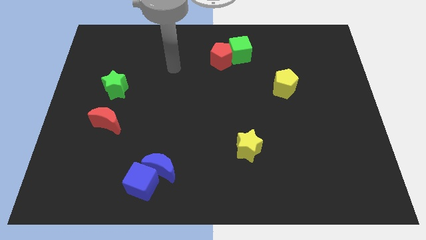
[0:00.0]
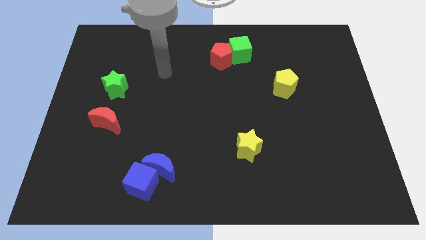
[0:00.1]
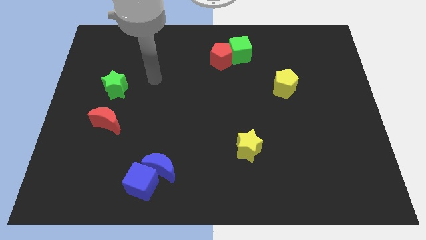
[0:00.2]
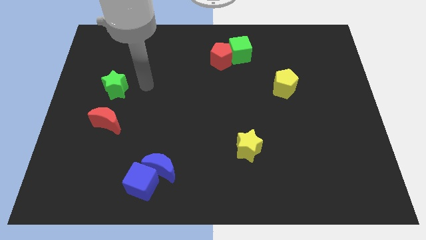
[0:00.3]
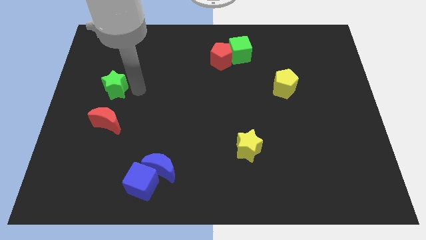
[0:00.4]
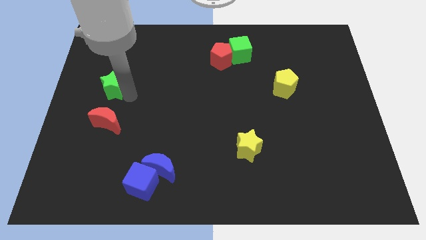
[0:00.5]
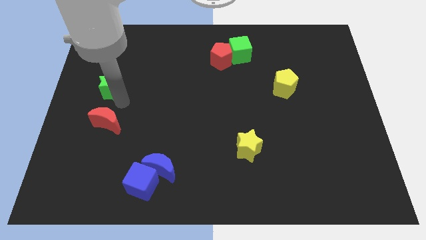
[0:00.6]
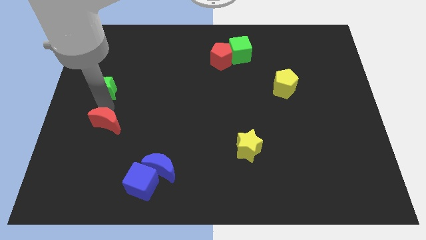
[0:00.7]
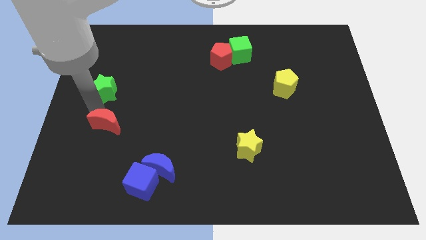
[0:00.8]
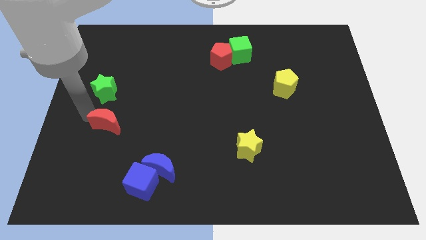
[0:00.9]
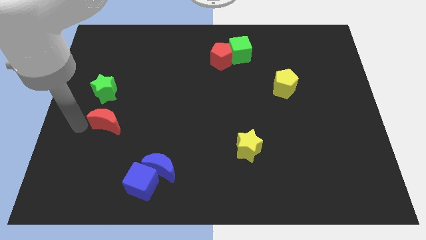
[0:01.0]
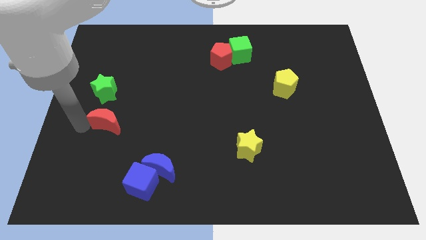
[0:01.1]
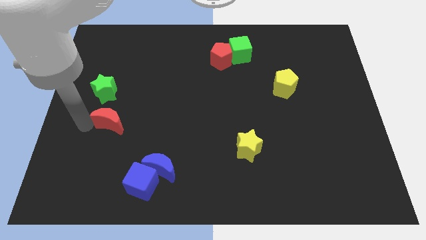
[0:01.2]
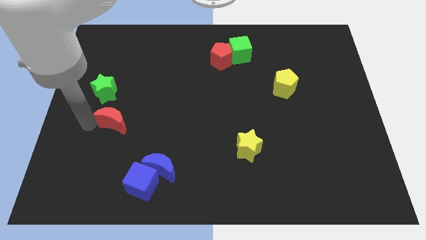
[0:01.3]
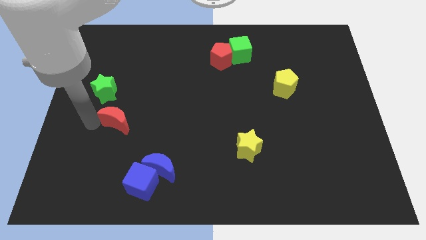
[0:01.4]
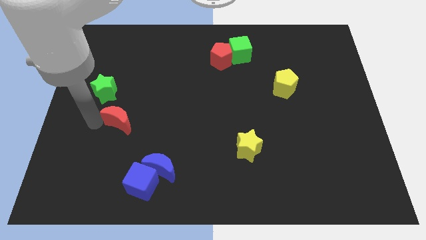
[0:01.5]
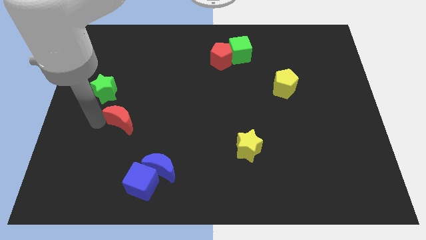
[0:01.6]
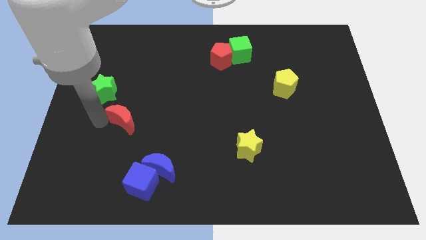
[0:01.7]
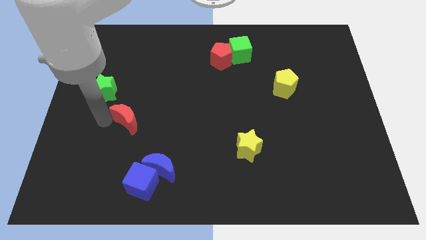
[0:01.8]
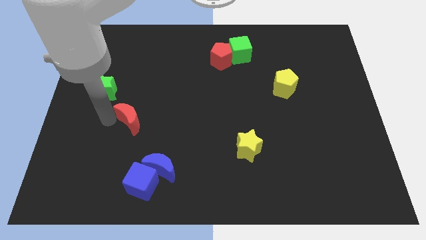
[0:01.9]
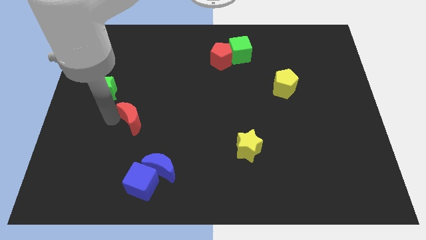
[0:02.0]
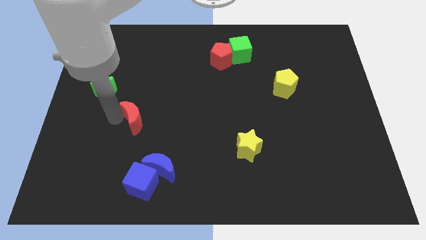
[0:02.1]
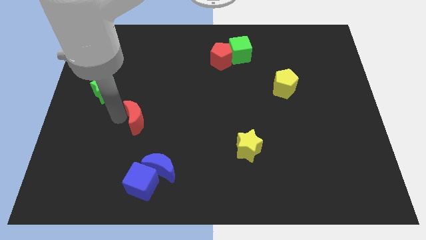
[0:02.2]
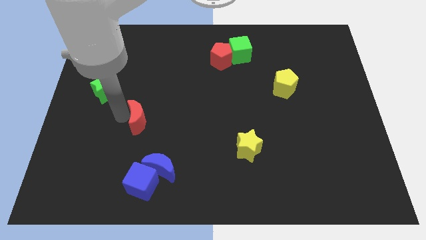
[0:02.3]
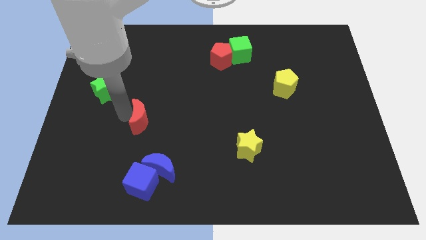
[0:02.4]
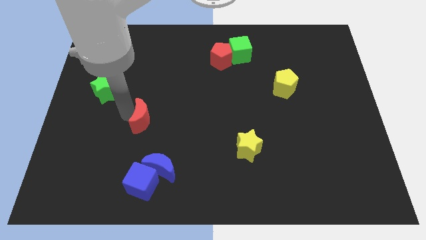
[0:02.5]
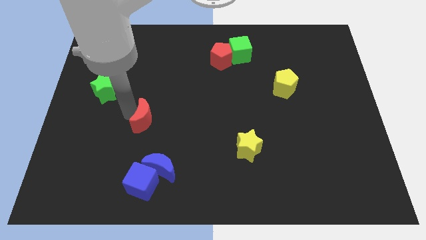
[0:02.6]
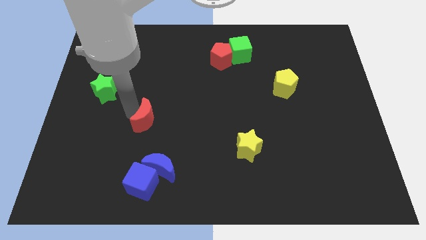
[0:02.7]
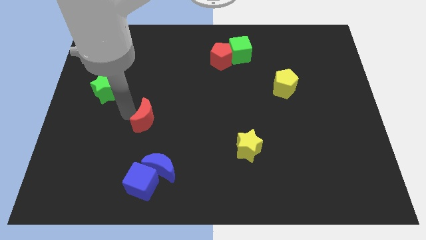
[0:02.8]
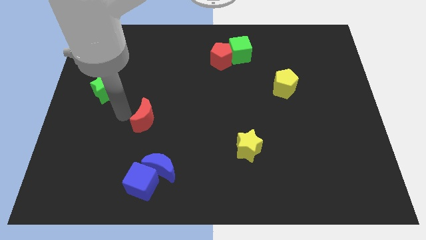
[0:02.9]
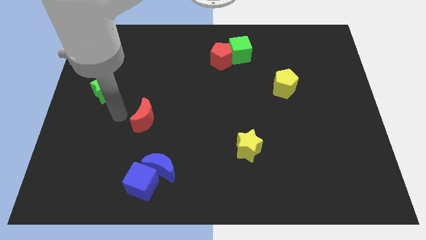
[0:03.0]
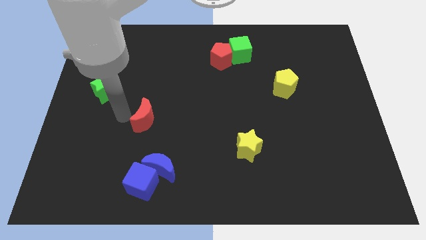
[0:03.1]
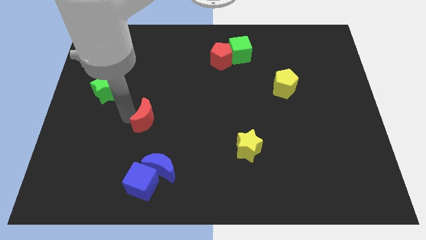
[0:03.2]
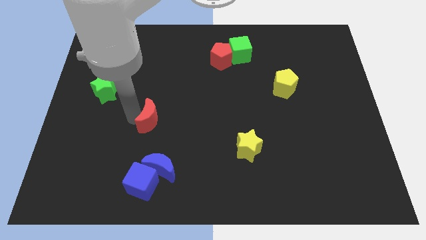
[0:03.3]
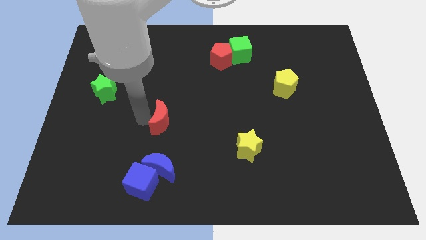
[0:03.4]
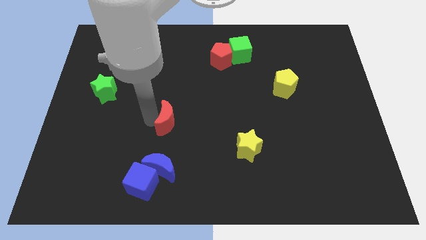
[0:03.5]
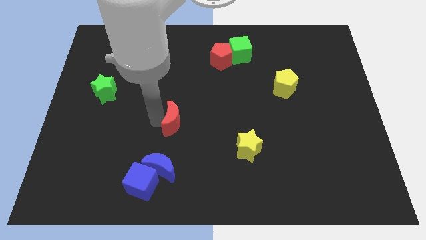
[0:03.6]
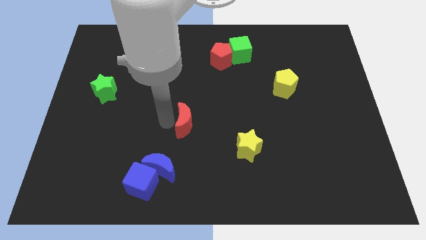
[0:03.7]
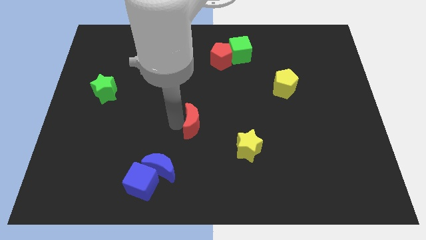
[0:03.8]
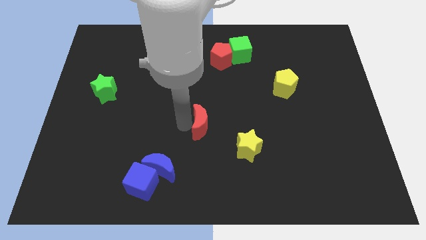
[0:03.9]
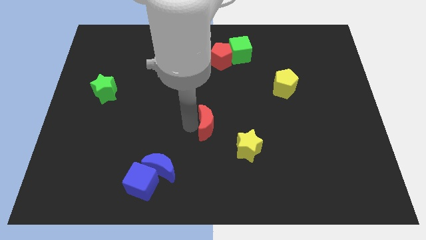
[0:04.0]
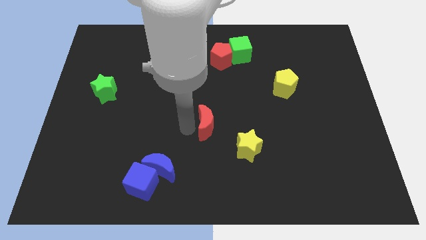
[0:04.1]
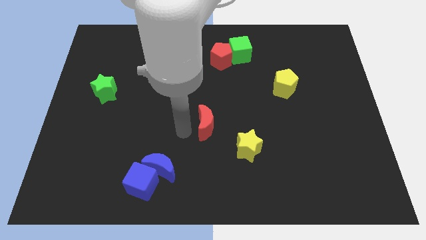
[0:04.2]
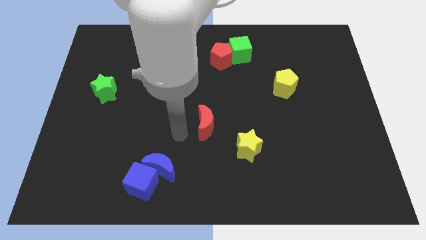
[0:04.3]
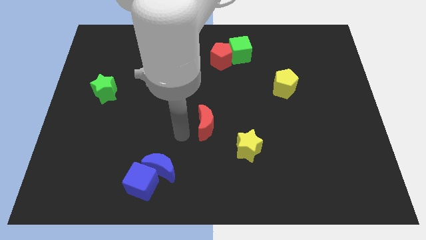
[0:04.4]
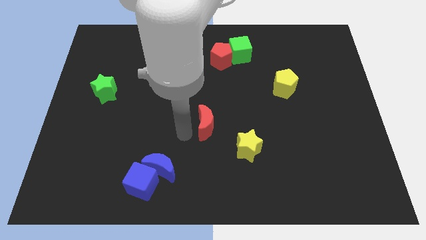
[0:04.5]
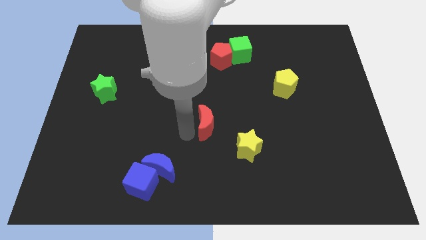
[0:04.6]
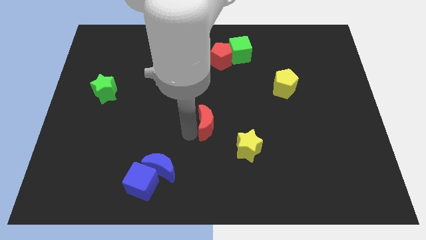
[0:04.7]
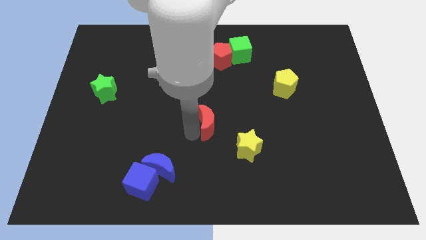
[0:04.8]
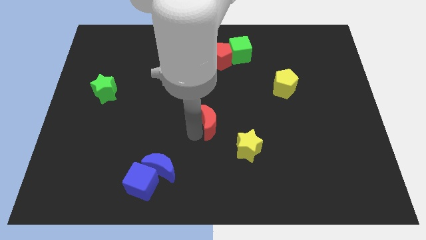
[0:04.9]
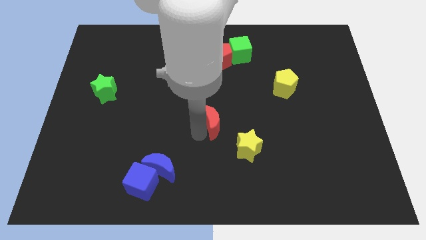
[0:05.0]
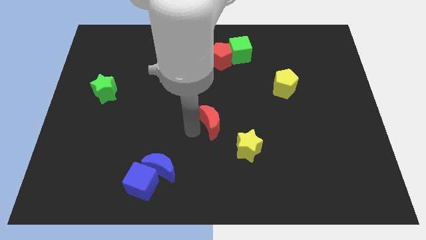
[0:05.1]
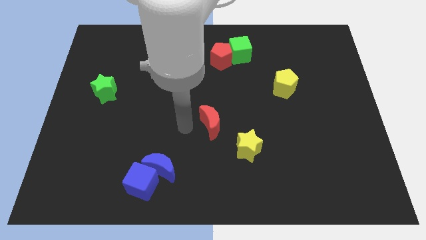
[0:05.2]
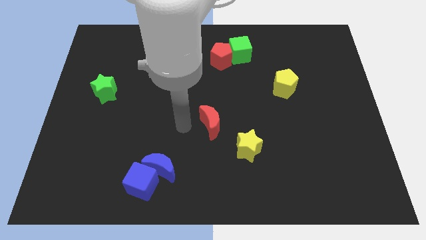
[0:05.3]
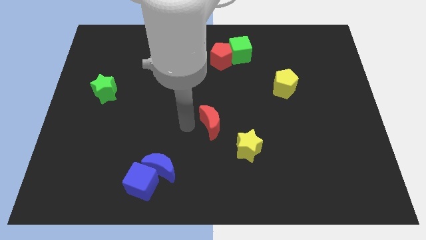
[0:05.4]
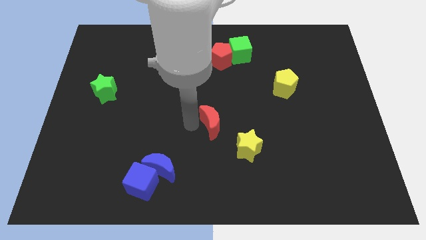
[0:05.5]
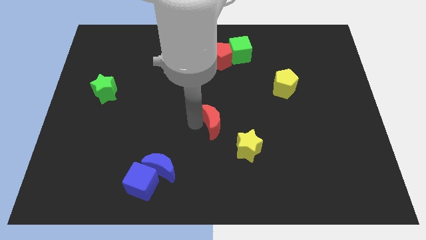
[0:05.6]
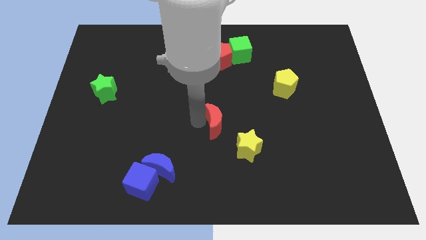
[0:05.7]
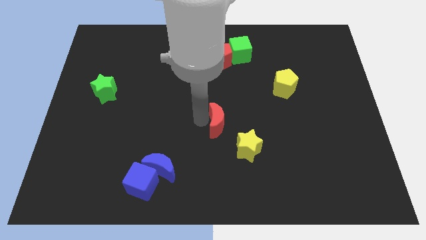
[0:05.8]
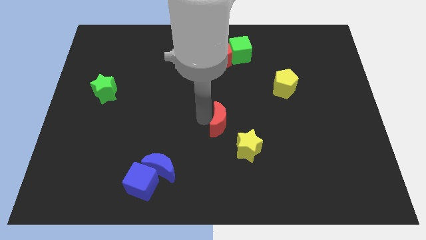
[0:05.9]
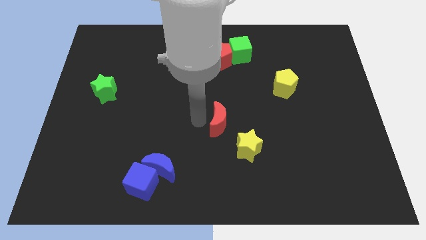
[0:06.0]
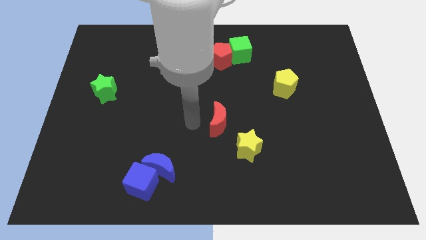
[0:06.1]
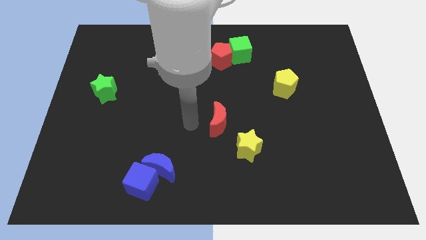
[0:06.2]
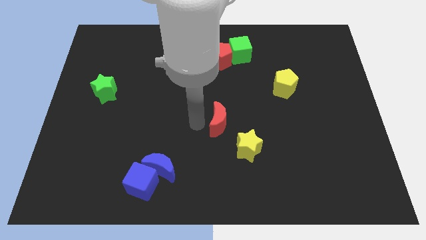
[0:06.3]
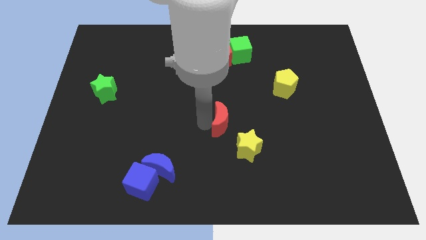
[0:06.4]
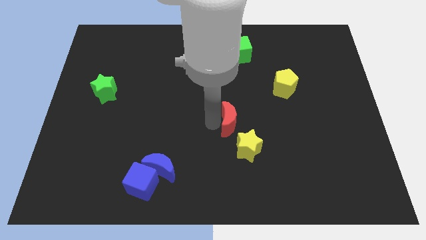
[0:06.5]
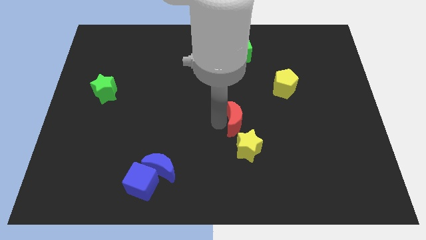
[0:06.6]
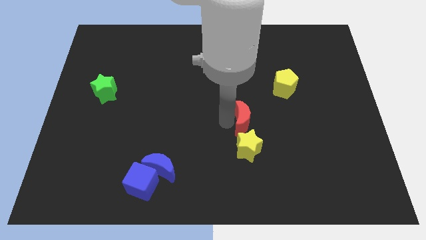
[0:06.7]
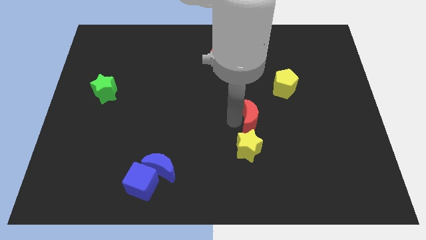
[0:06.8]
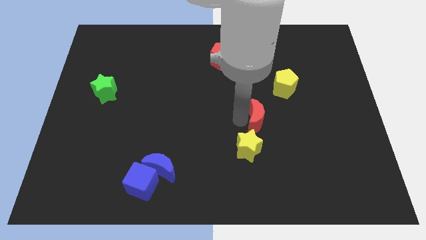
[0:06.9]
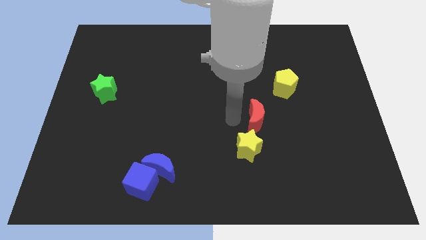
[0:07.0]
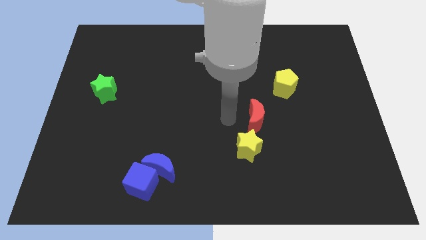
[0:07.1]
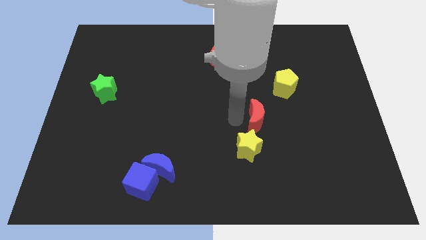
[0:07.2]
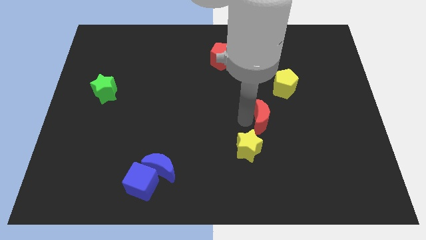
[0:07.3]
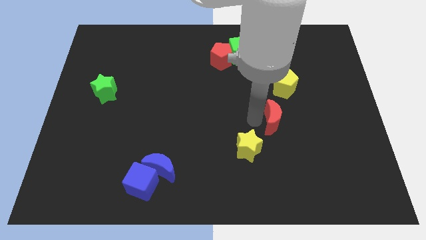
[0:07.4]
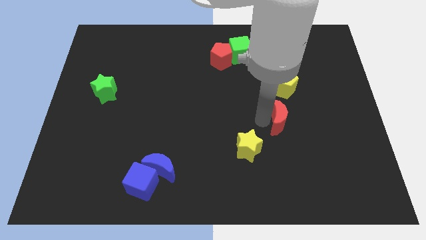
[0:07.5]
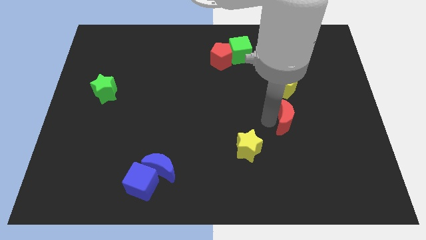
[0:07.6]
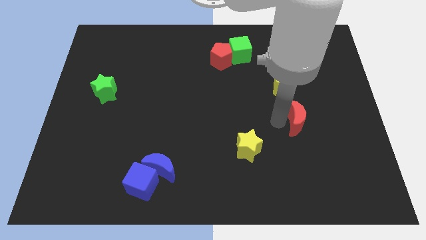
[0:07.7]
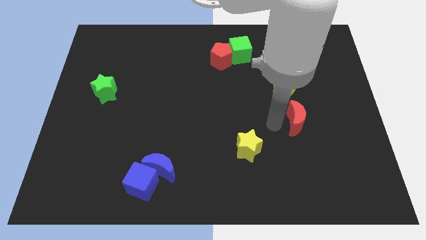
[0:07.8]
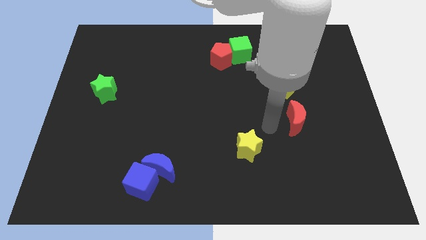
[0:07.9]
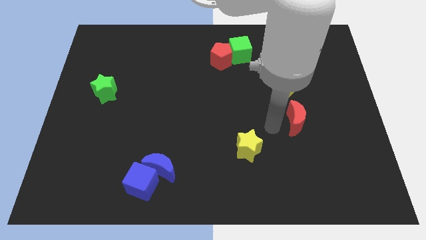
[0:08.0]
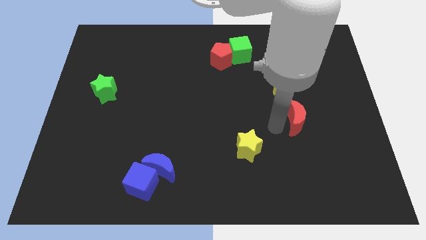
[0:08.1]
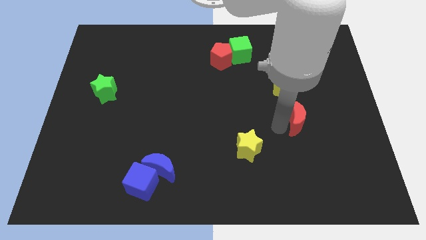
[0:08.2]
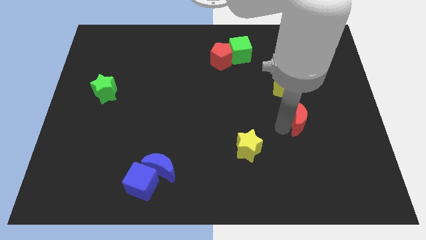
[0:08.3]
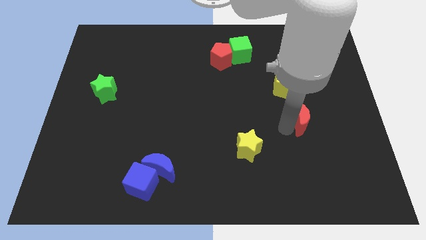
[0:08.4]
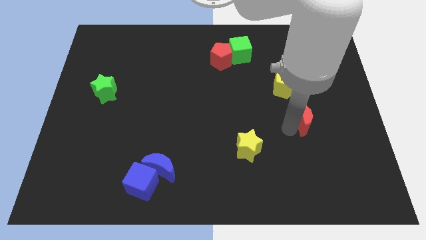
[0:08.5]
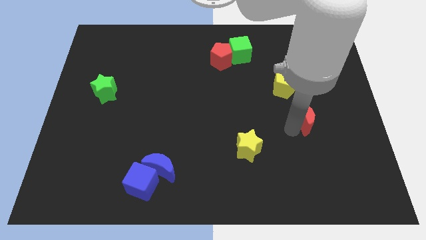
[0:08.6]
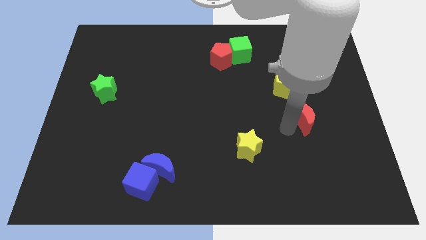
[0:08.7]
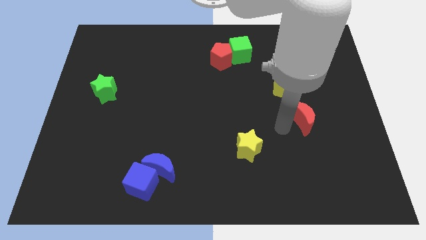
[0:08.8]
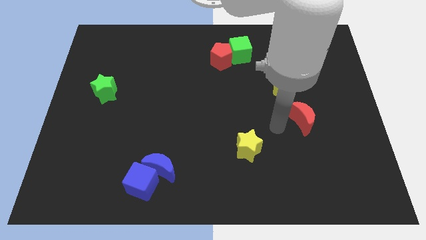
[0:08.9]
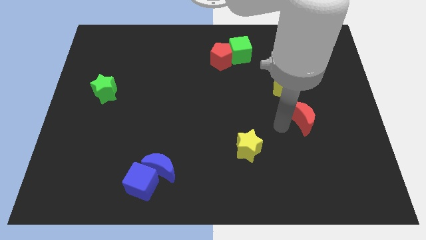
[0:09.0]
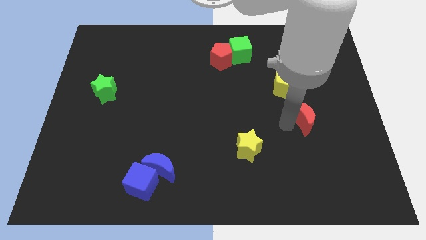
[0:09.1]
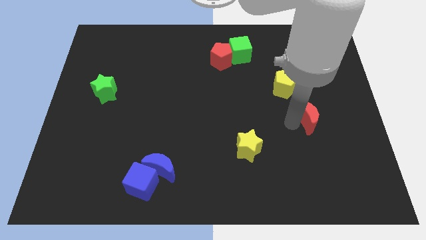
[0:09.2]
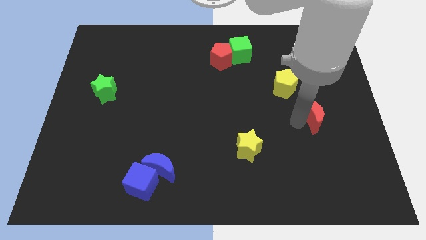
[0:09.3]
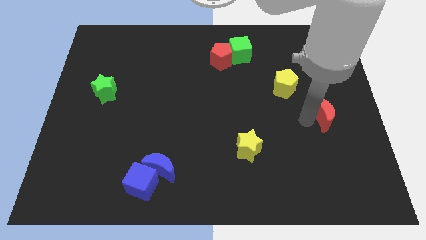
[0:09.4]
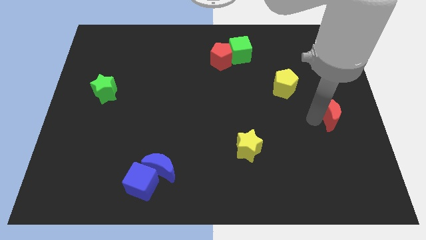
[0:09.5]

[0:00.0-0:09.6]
move the red moon to the right side
